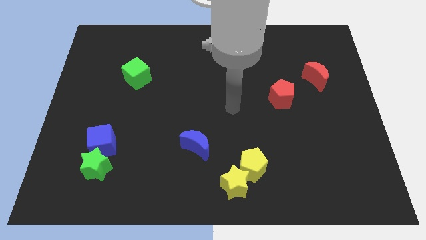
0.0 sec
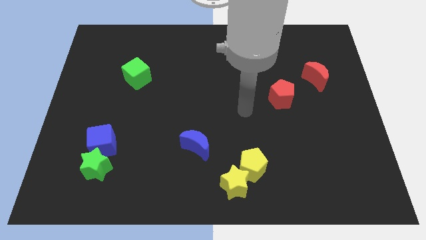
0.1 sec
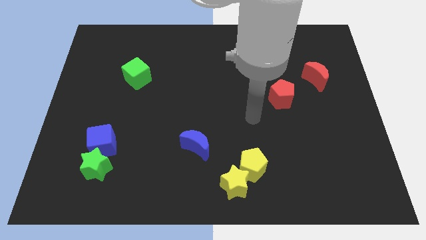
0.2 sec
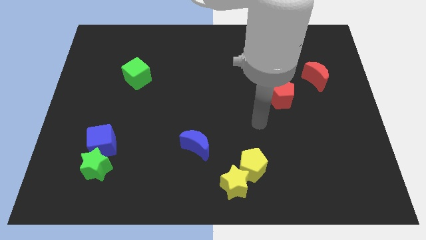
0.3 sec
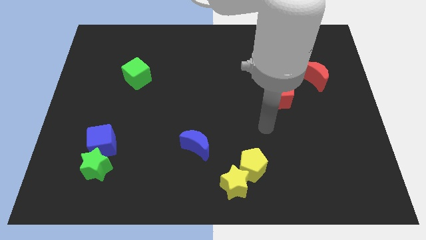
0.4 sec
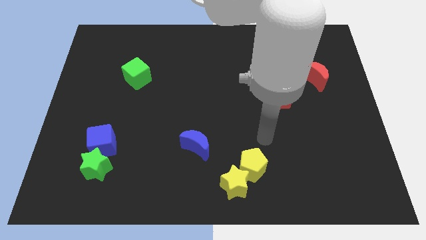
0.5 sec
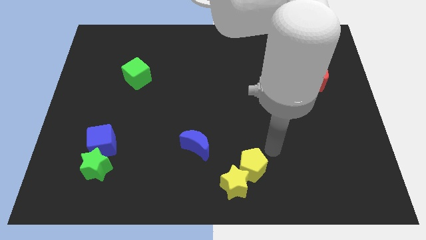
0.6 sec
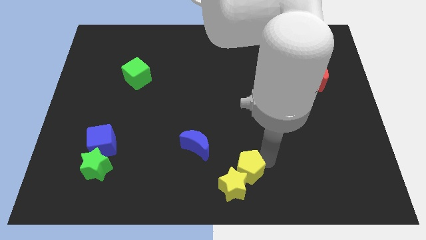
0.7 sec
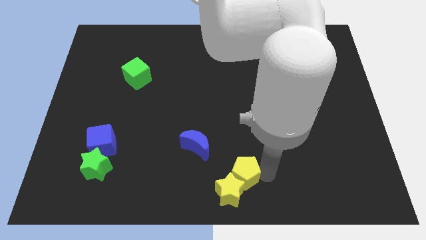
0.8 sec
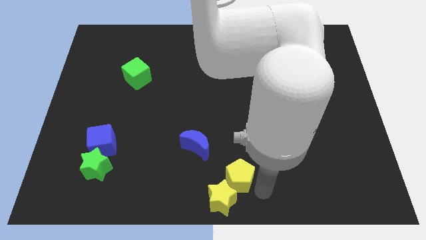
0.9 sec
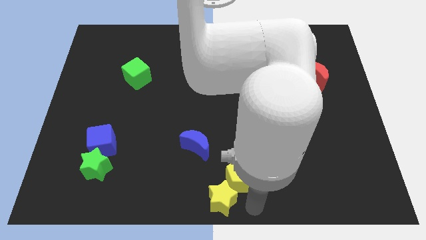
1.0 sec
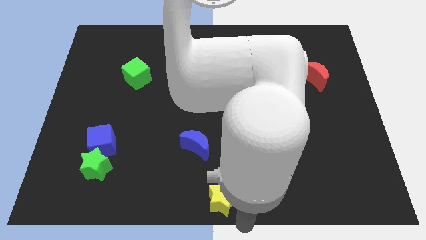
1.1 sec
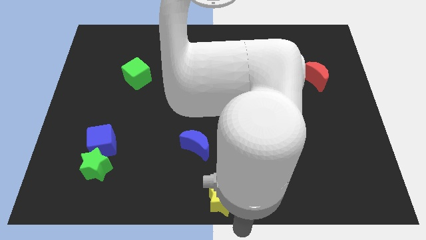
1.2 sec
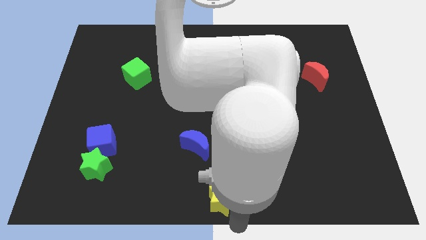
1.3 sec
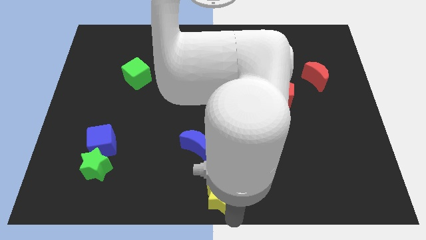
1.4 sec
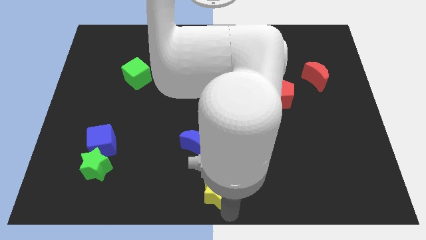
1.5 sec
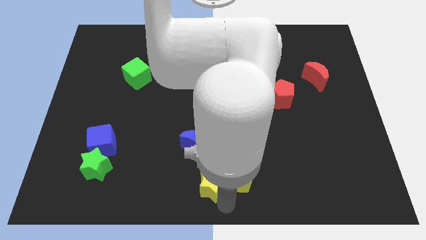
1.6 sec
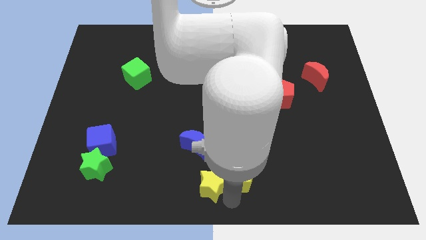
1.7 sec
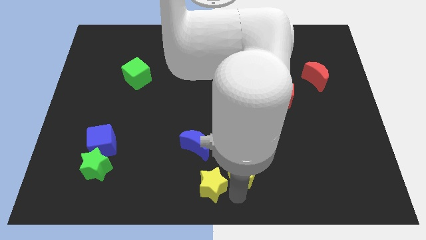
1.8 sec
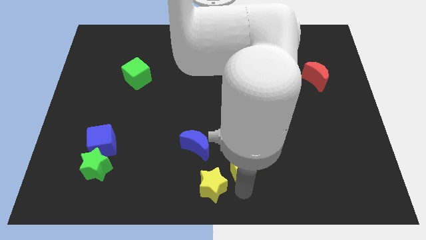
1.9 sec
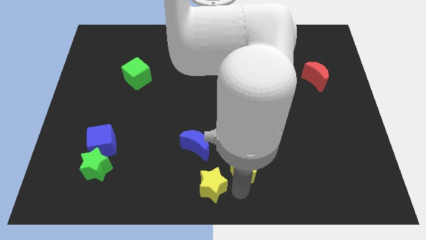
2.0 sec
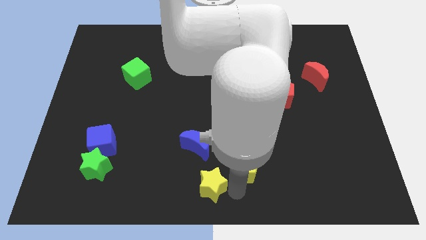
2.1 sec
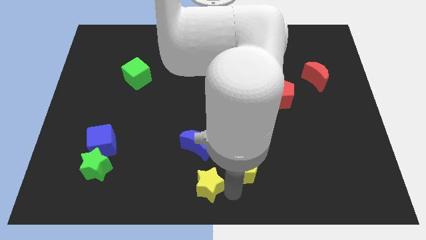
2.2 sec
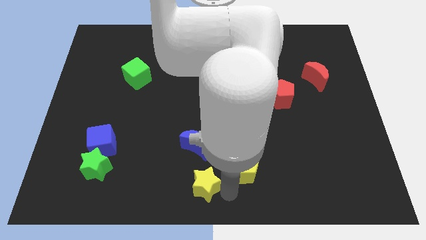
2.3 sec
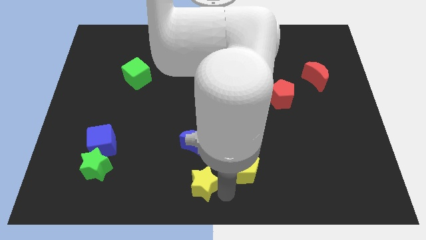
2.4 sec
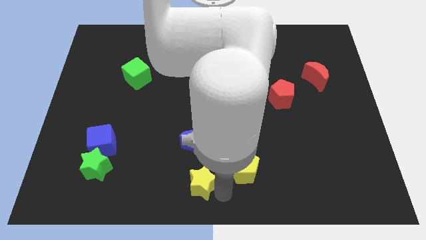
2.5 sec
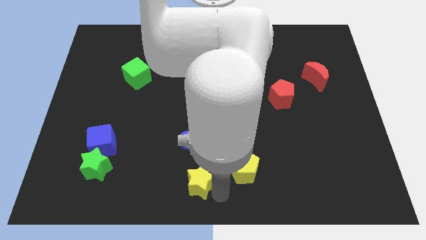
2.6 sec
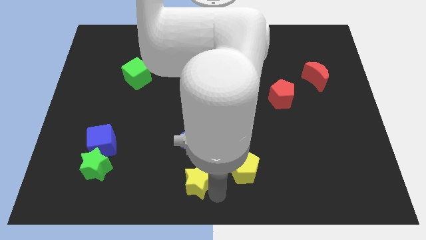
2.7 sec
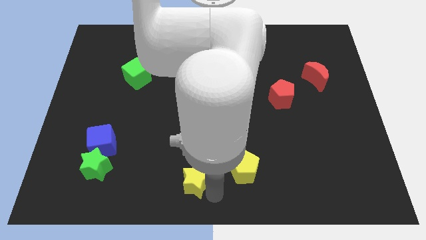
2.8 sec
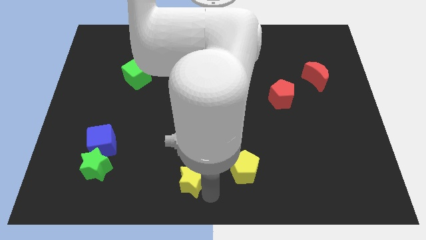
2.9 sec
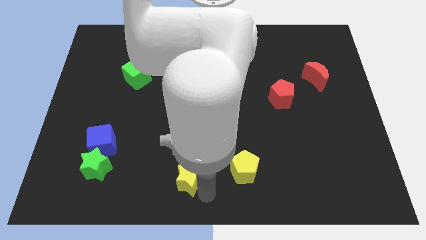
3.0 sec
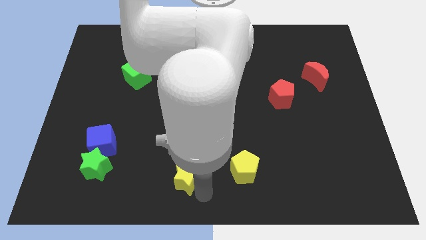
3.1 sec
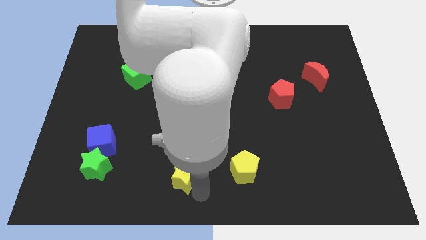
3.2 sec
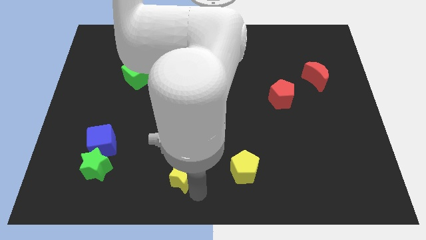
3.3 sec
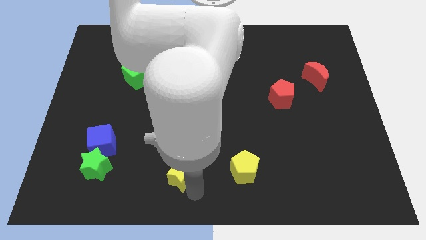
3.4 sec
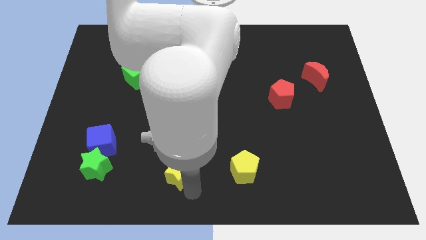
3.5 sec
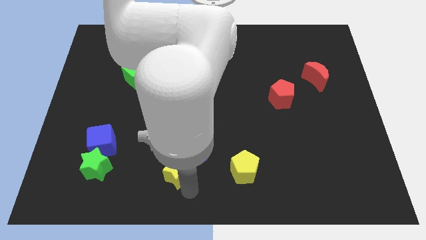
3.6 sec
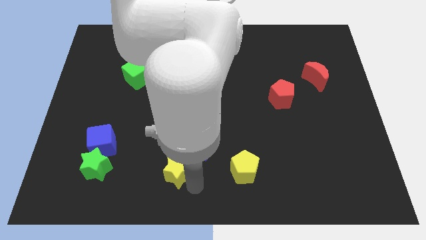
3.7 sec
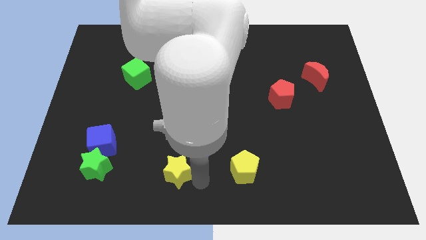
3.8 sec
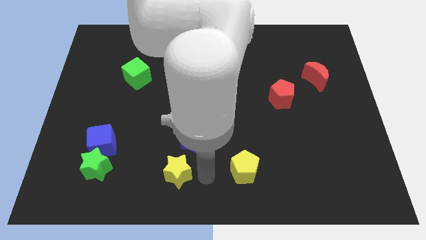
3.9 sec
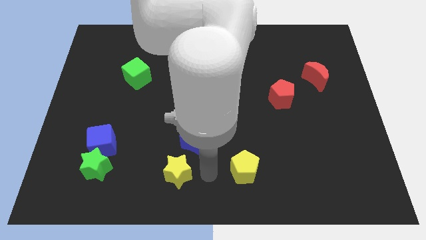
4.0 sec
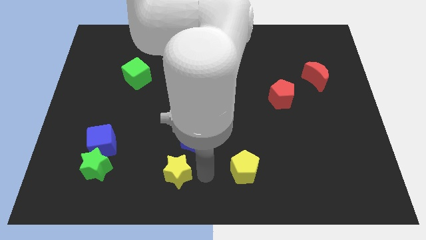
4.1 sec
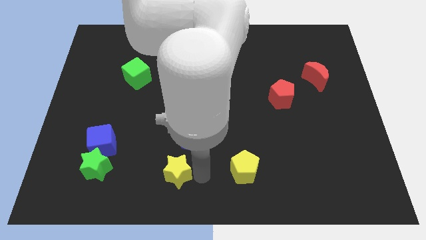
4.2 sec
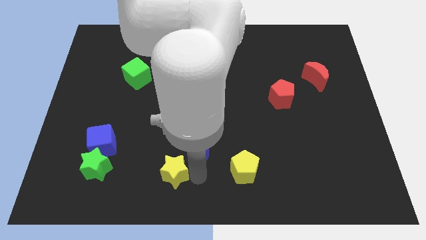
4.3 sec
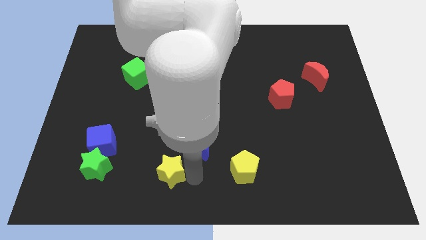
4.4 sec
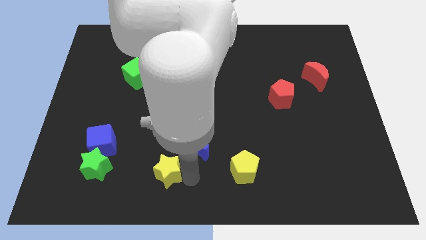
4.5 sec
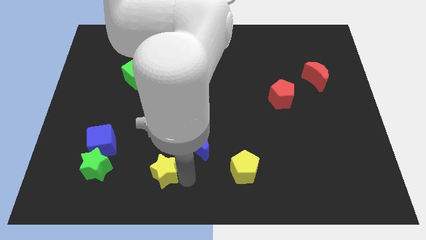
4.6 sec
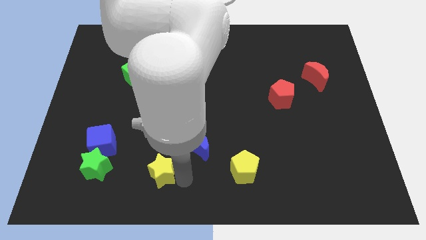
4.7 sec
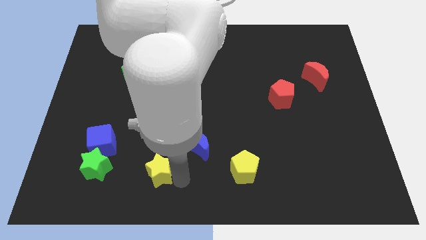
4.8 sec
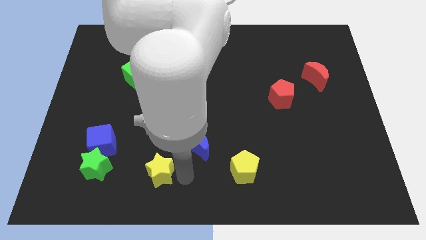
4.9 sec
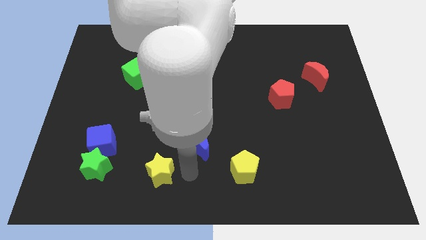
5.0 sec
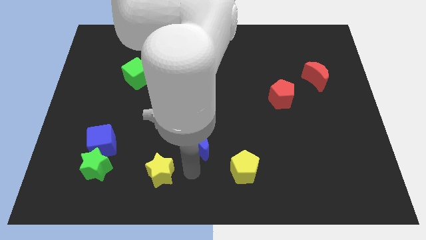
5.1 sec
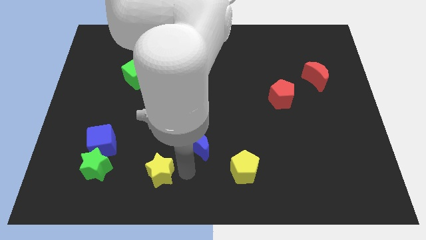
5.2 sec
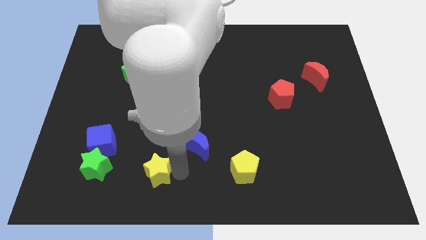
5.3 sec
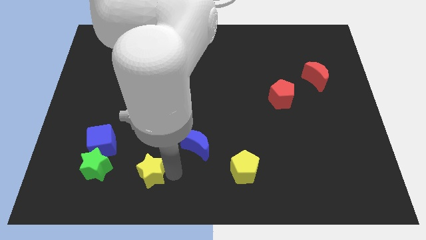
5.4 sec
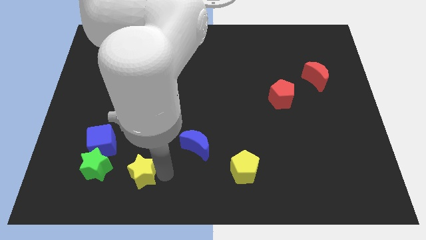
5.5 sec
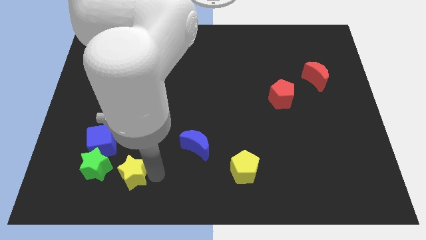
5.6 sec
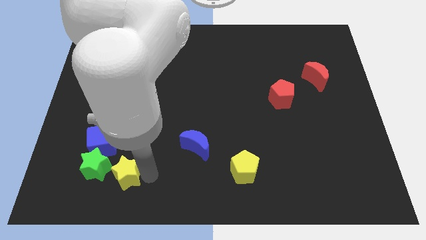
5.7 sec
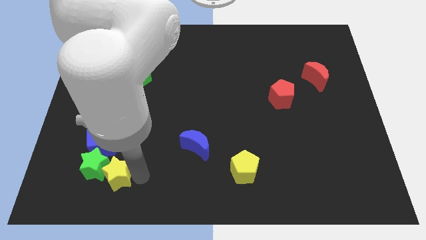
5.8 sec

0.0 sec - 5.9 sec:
move the yellow star close to the green star

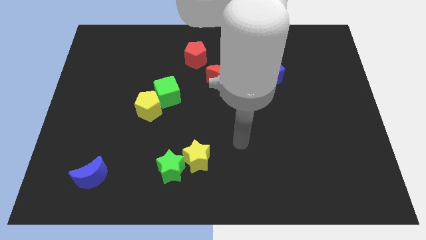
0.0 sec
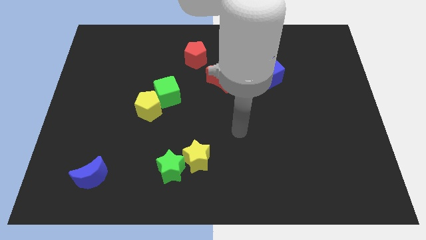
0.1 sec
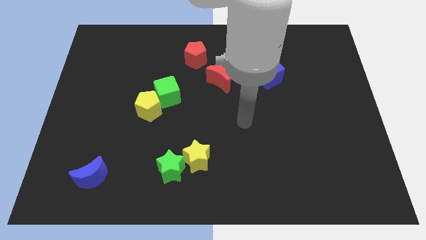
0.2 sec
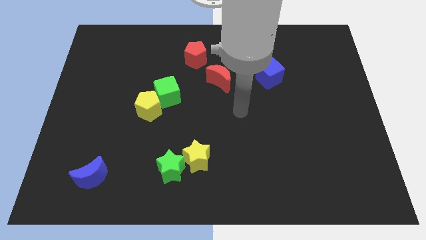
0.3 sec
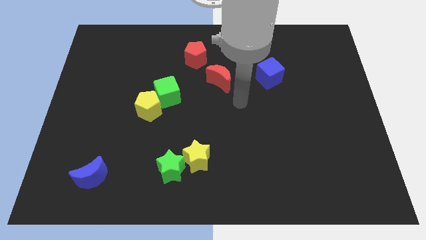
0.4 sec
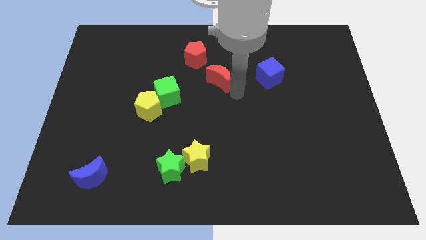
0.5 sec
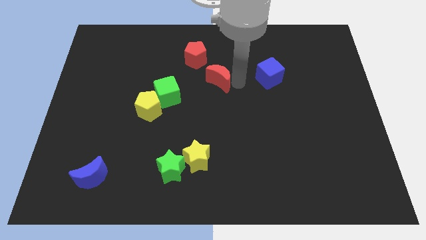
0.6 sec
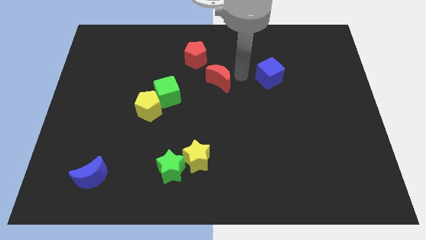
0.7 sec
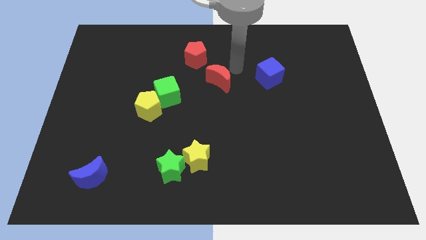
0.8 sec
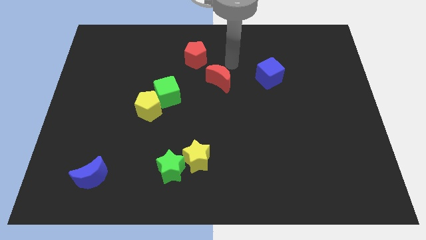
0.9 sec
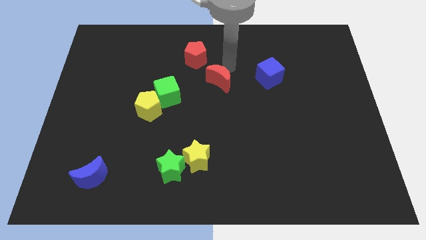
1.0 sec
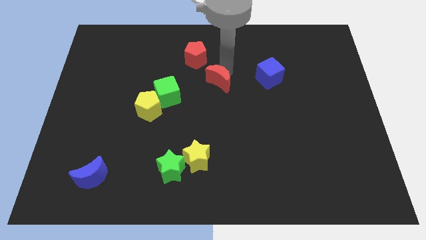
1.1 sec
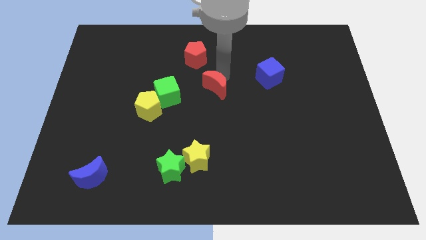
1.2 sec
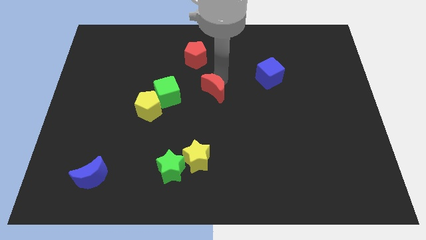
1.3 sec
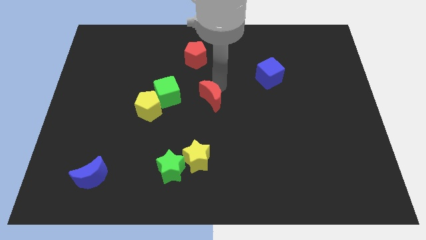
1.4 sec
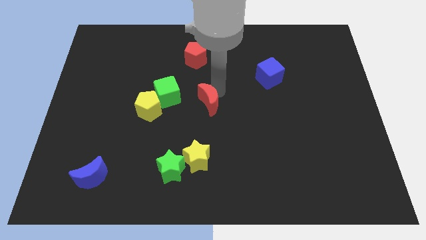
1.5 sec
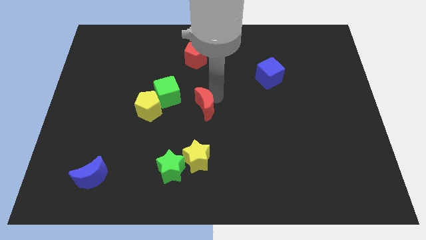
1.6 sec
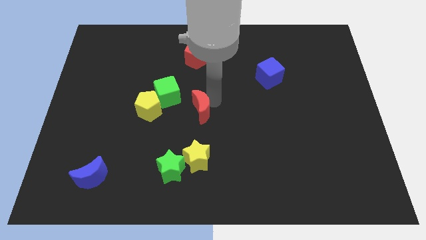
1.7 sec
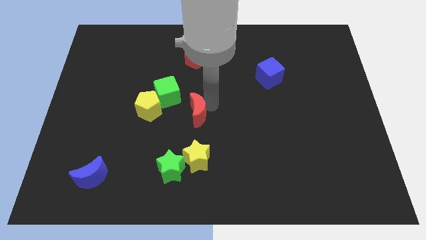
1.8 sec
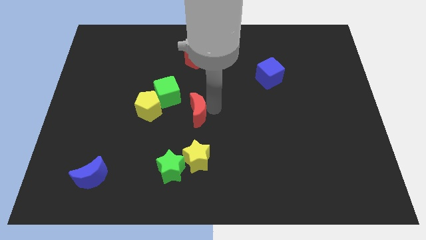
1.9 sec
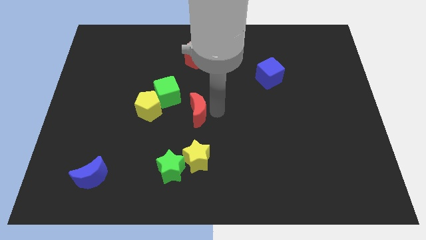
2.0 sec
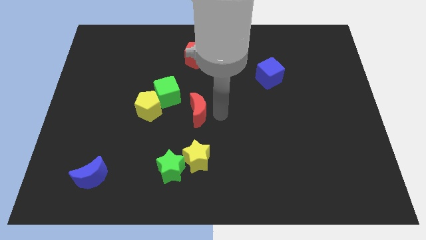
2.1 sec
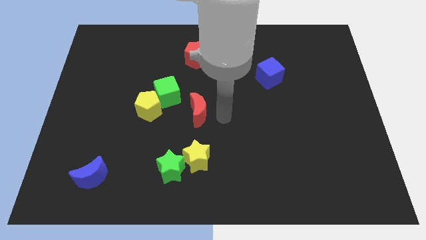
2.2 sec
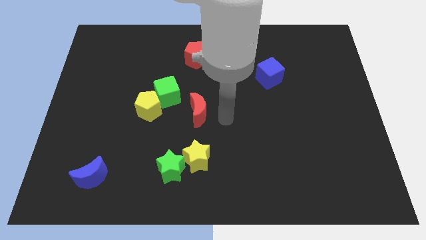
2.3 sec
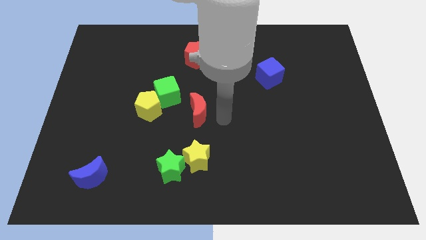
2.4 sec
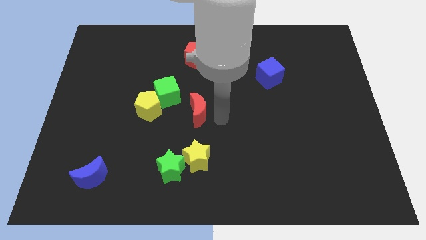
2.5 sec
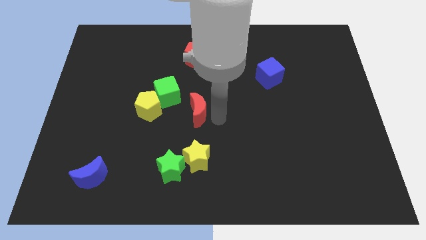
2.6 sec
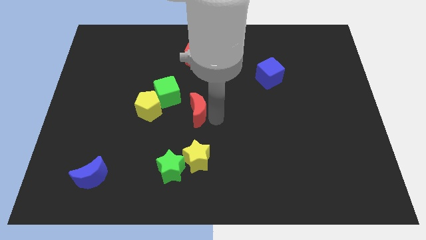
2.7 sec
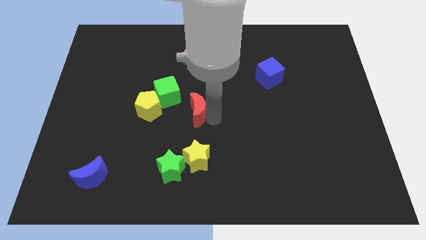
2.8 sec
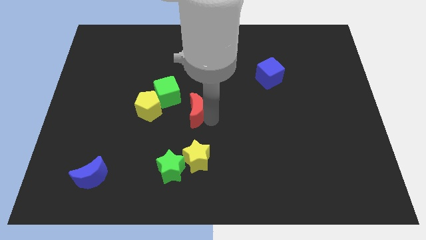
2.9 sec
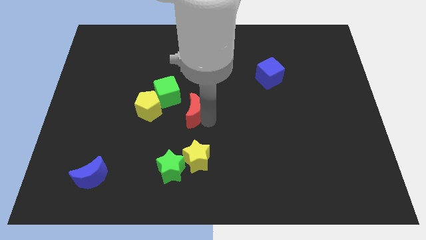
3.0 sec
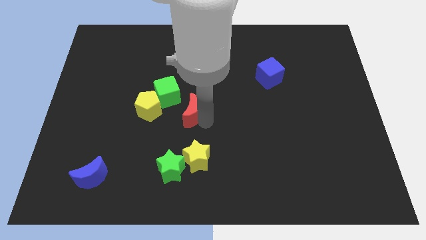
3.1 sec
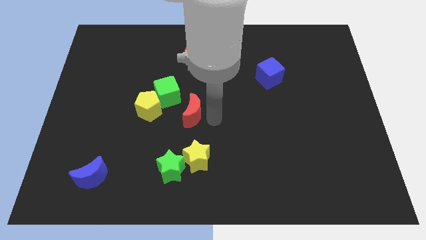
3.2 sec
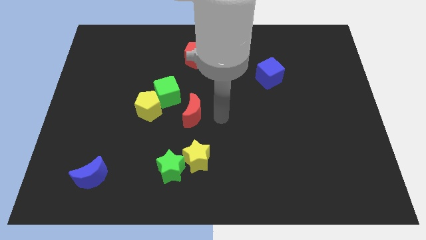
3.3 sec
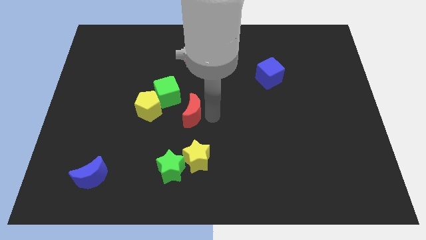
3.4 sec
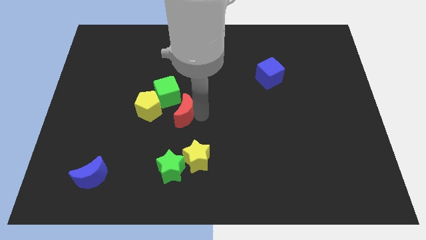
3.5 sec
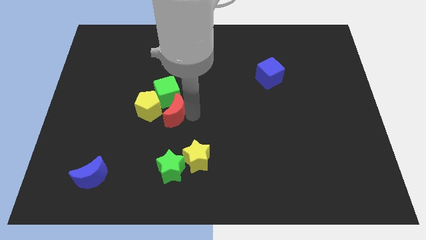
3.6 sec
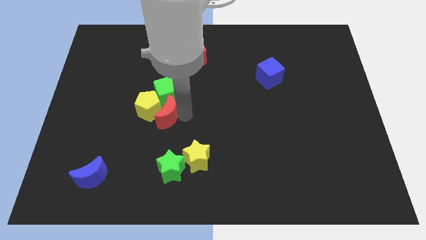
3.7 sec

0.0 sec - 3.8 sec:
put the red moon to the yellow pentagon
